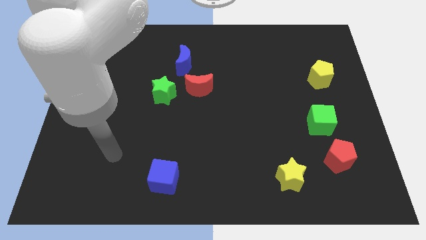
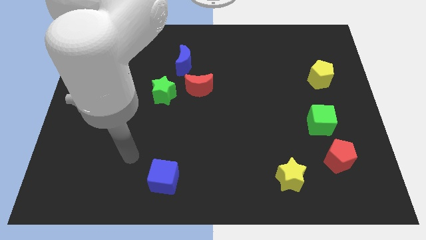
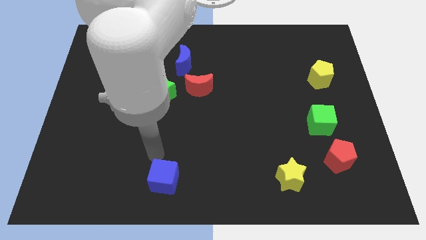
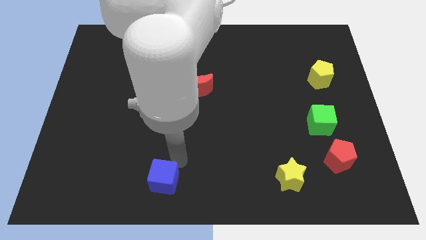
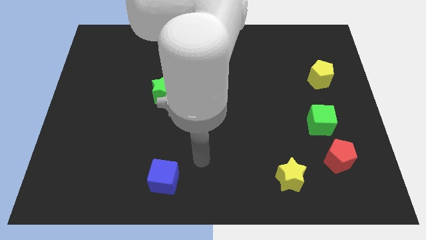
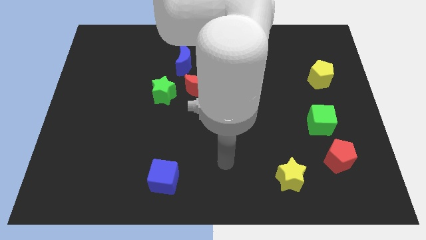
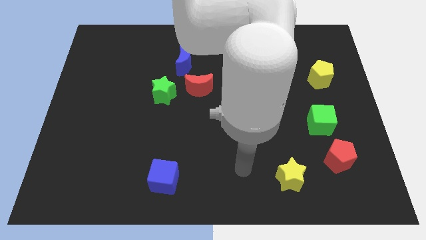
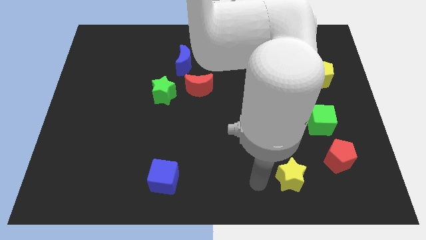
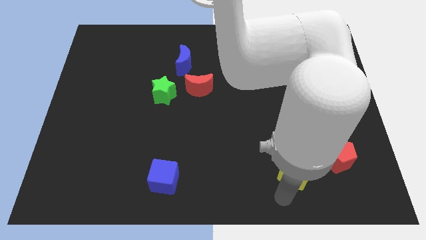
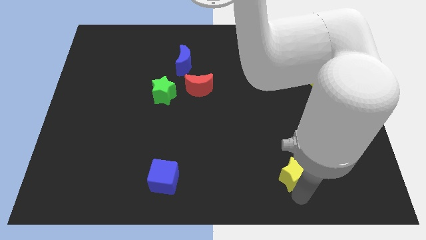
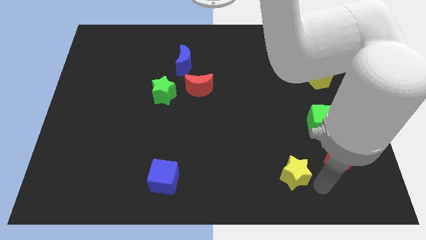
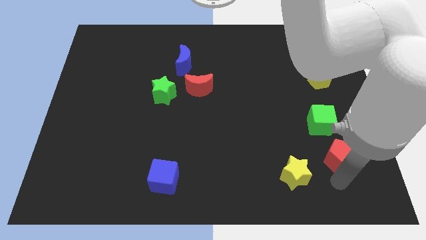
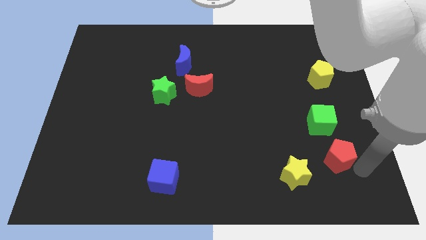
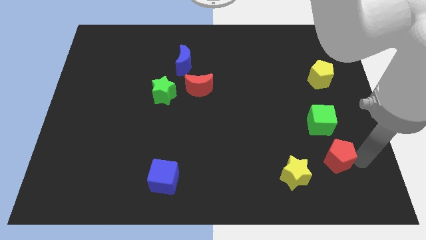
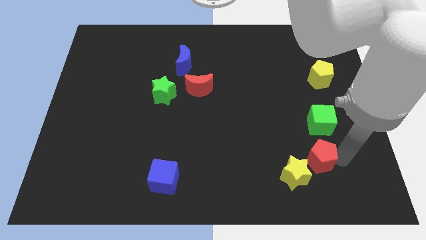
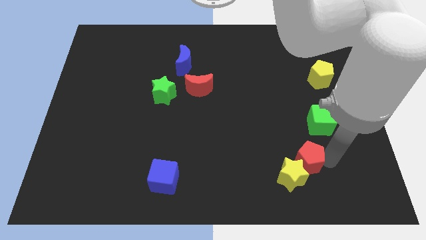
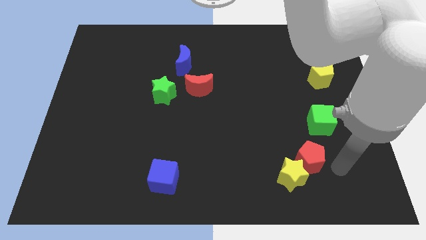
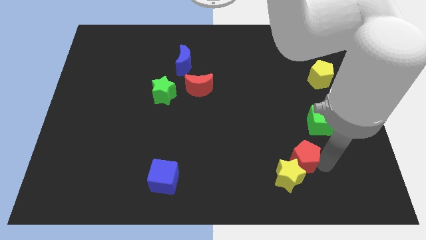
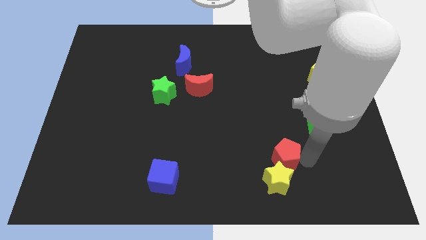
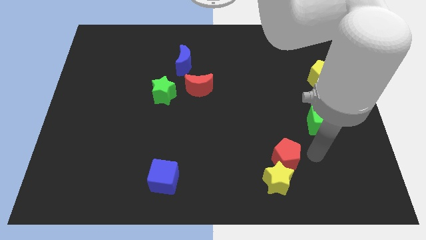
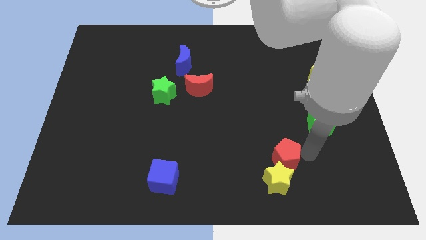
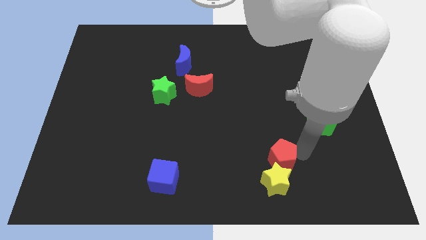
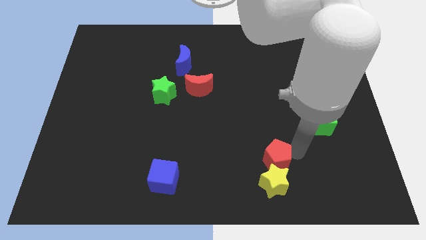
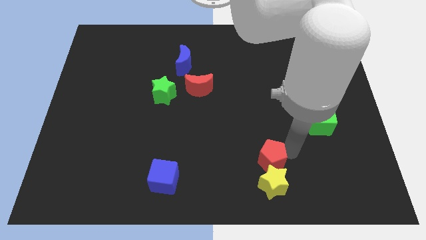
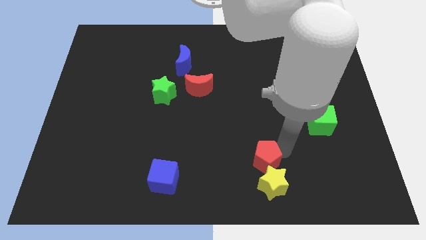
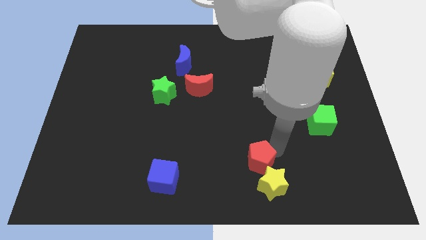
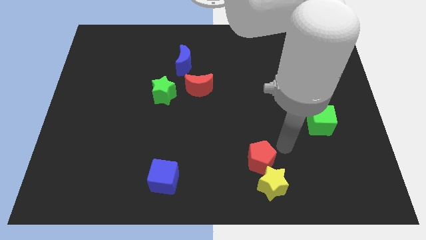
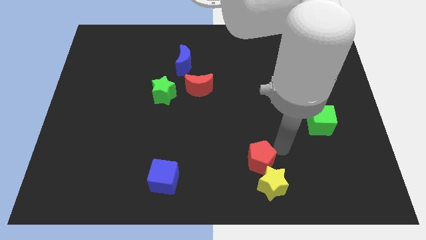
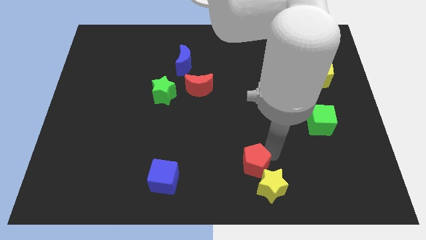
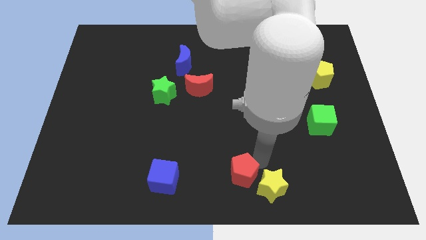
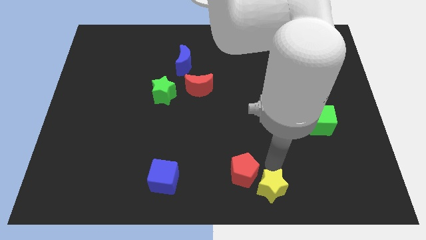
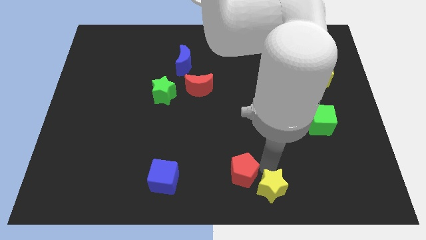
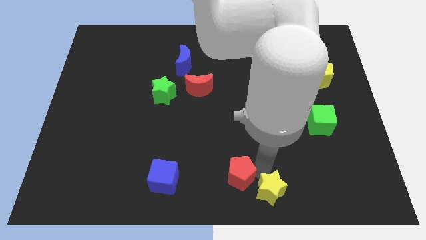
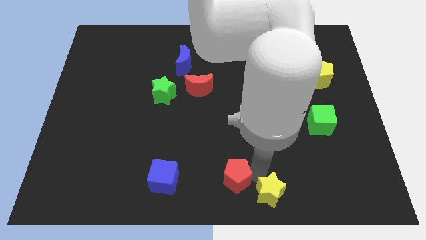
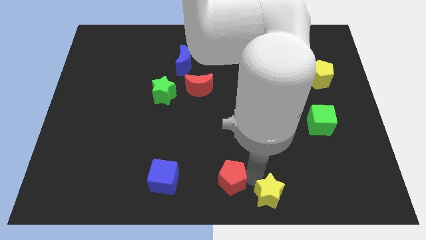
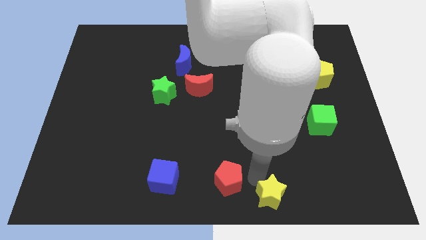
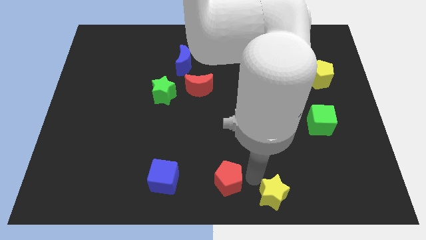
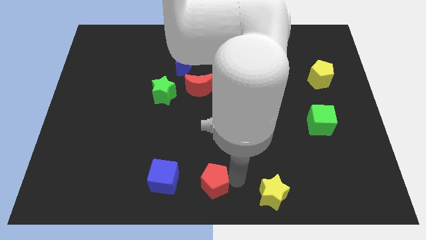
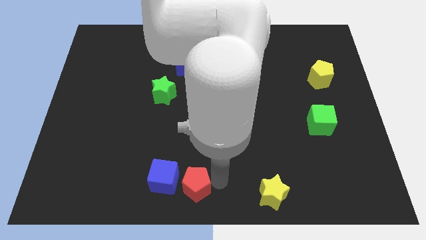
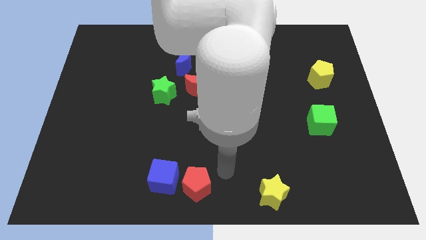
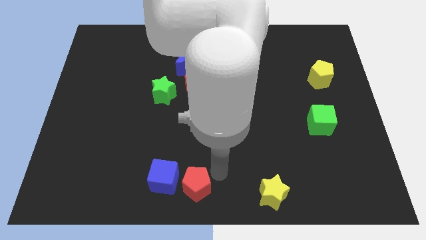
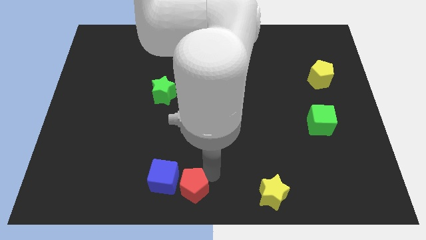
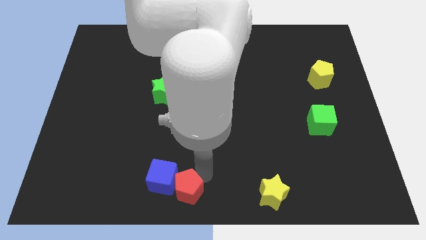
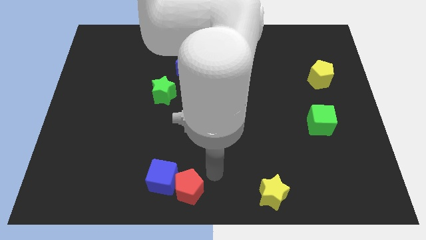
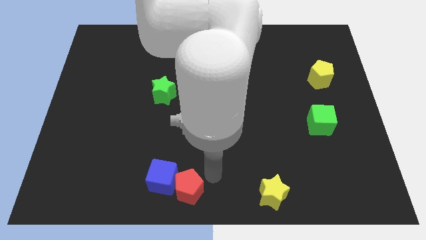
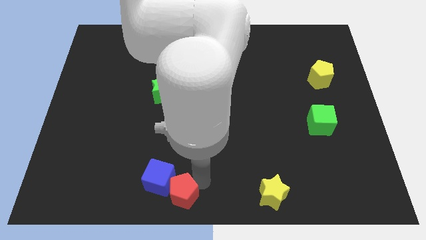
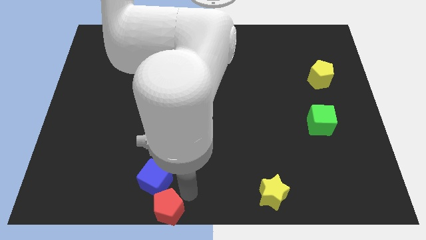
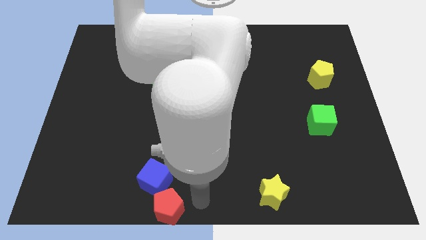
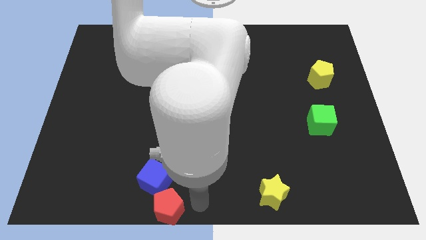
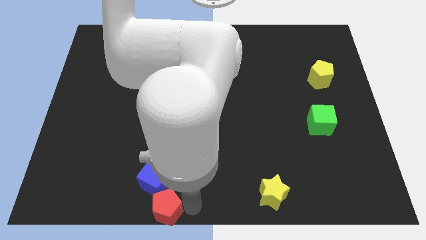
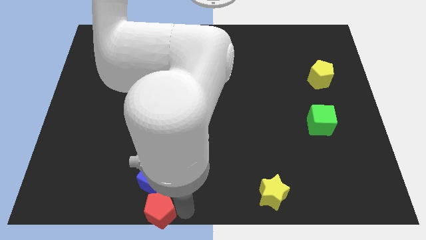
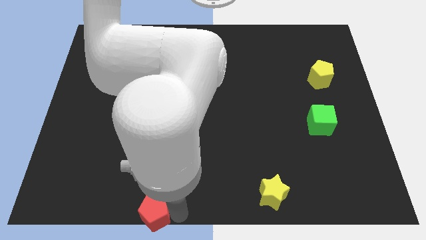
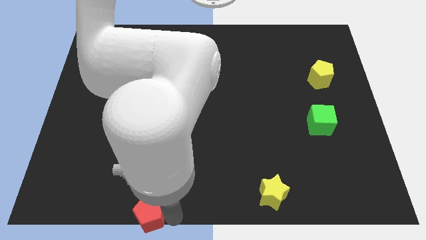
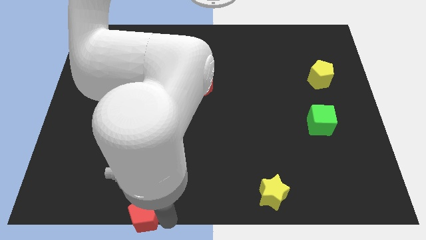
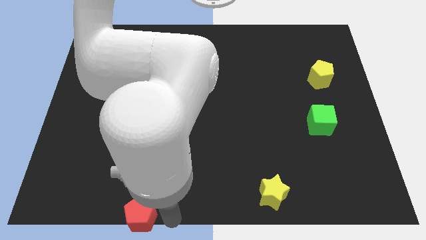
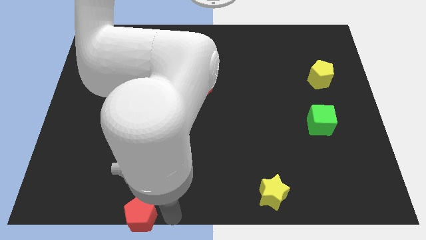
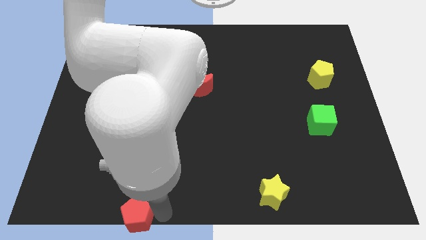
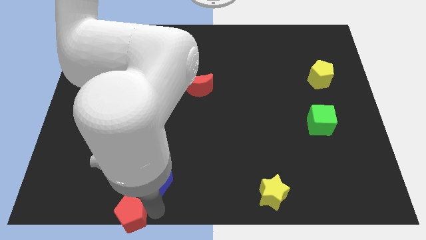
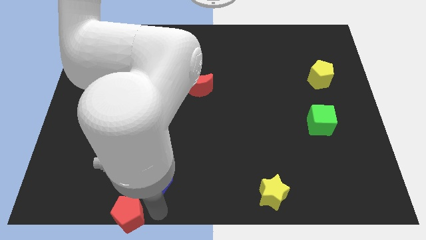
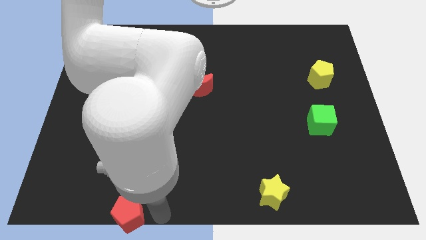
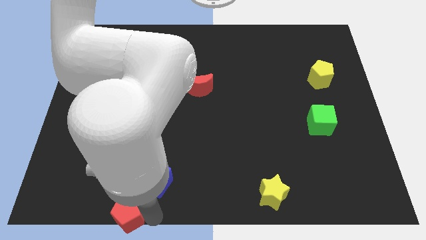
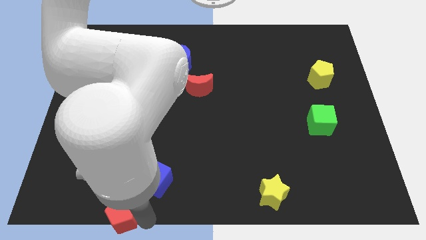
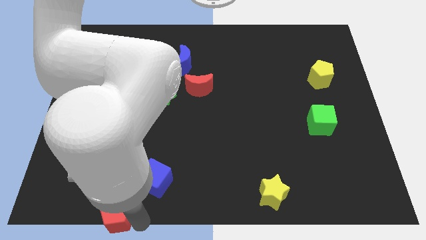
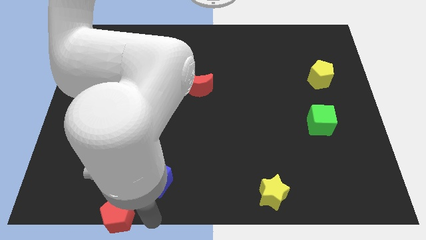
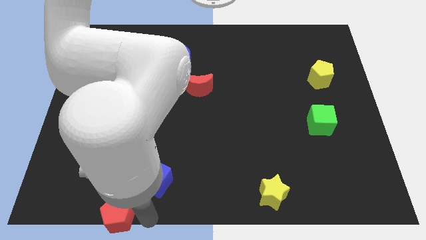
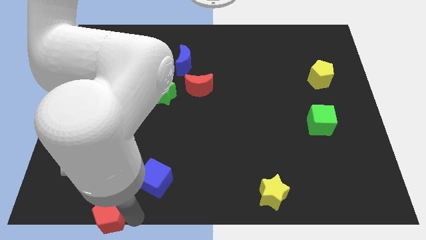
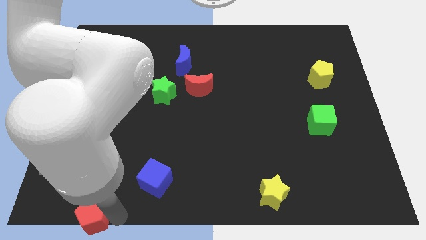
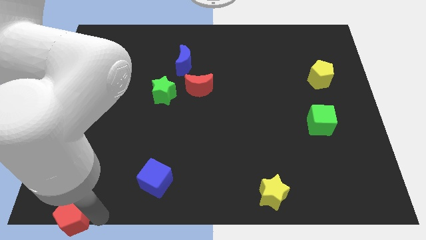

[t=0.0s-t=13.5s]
slide the red pentagon to the bottom left
